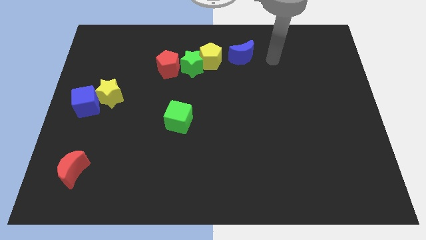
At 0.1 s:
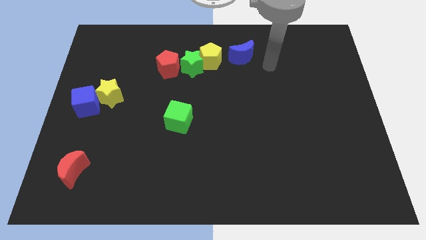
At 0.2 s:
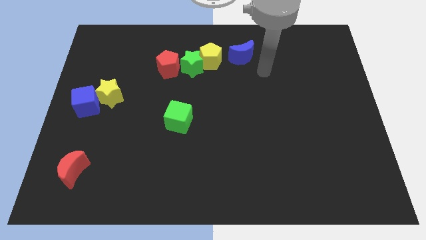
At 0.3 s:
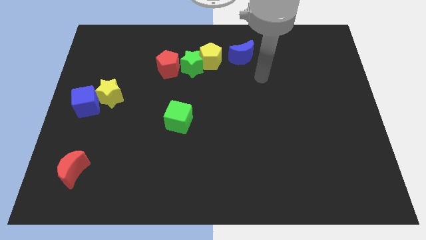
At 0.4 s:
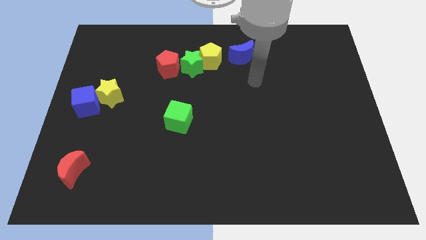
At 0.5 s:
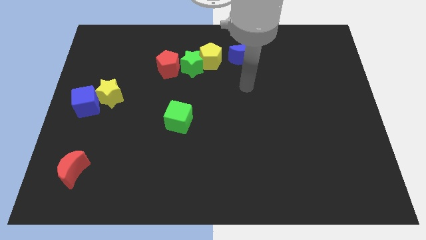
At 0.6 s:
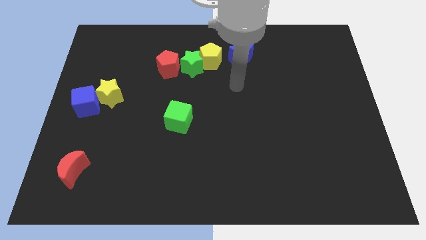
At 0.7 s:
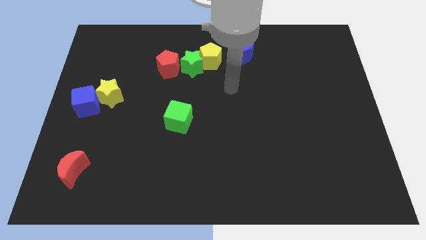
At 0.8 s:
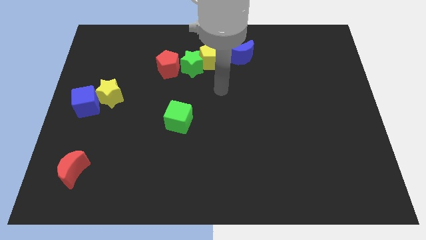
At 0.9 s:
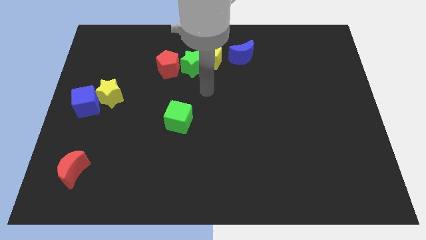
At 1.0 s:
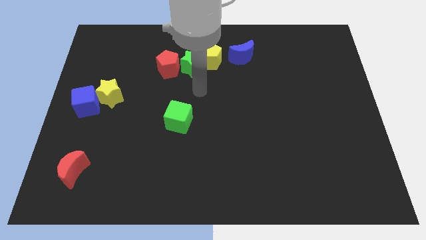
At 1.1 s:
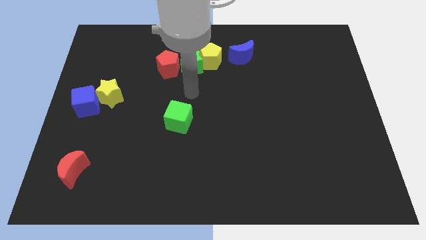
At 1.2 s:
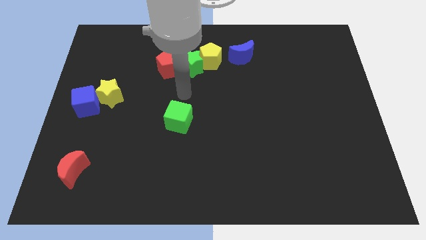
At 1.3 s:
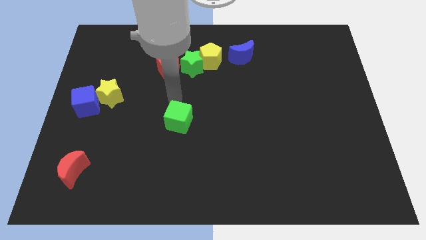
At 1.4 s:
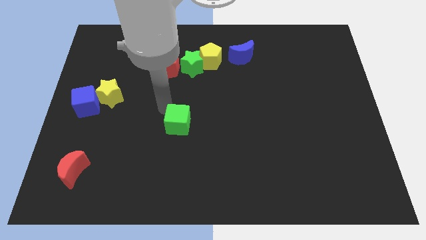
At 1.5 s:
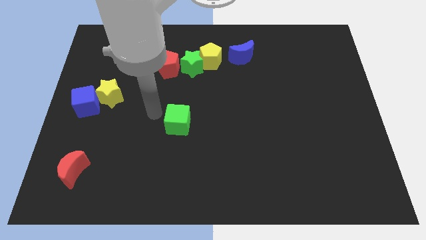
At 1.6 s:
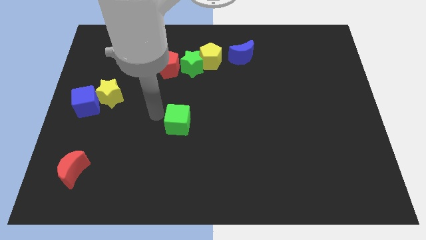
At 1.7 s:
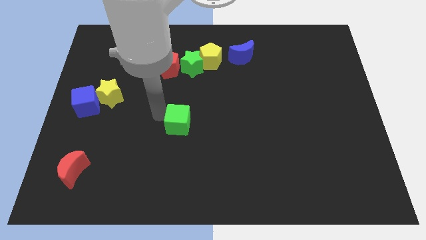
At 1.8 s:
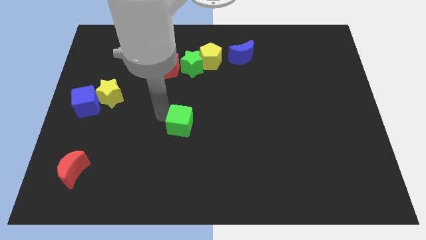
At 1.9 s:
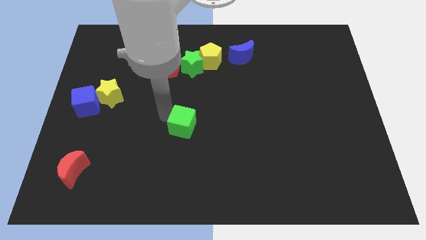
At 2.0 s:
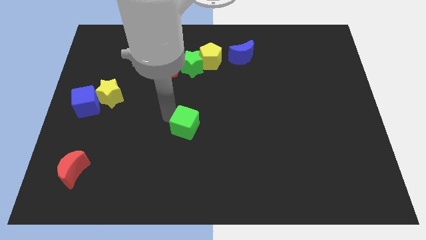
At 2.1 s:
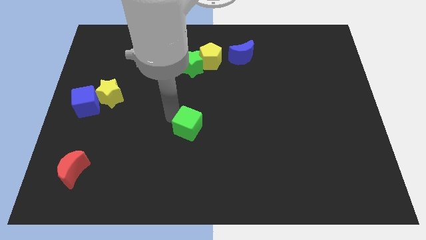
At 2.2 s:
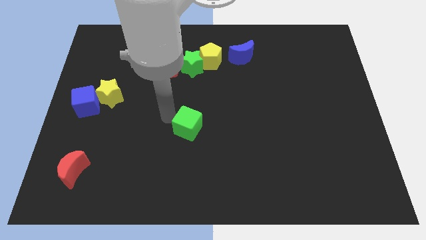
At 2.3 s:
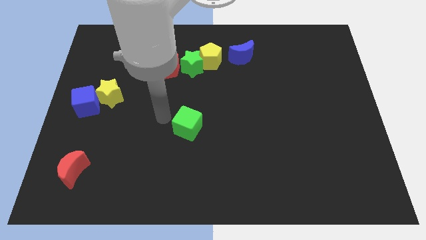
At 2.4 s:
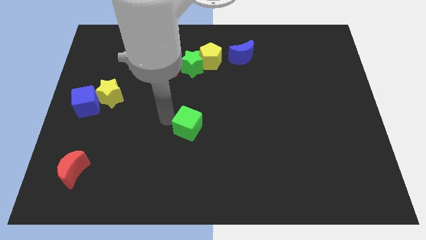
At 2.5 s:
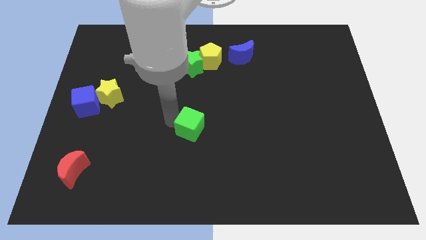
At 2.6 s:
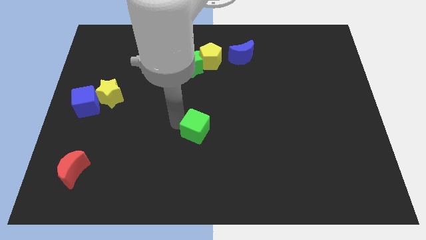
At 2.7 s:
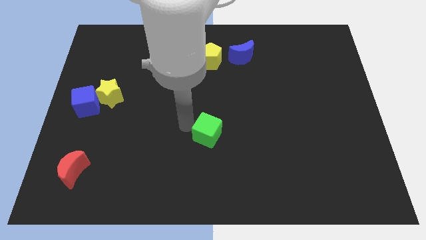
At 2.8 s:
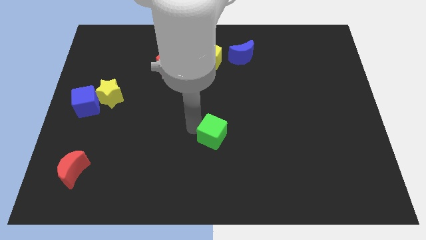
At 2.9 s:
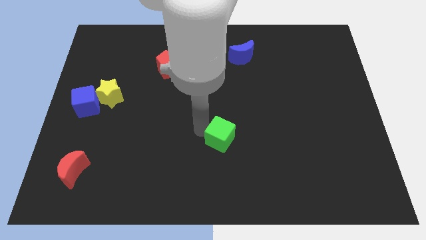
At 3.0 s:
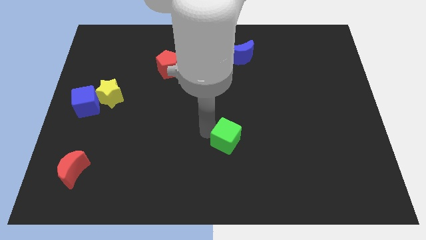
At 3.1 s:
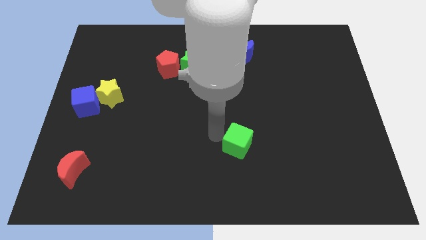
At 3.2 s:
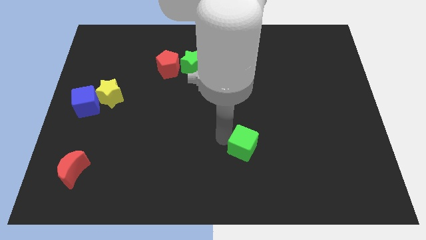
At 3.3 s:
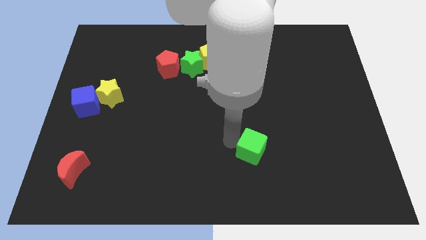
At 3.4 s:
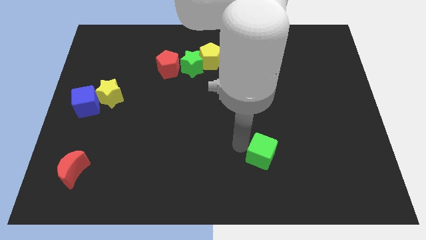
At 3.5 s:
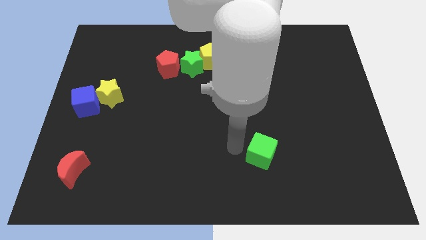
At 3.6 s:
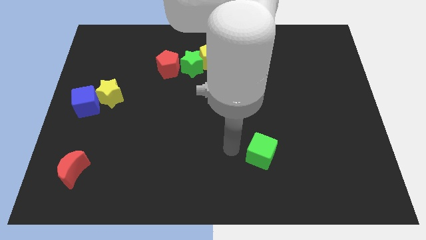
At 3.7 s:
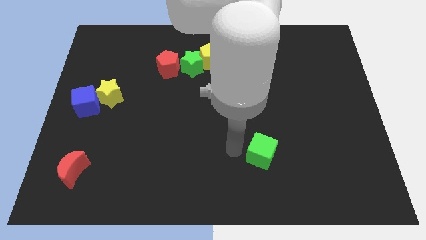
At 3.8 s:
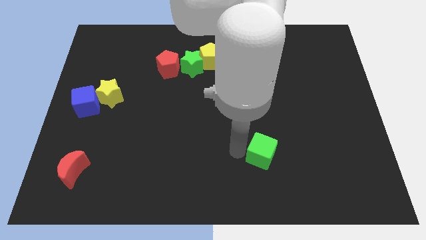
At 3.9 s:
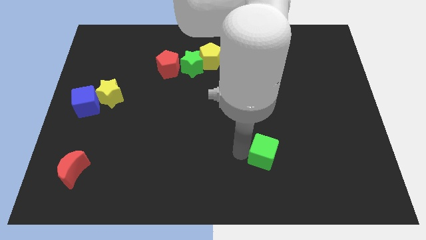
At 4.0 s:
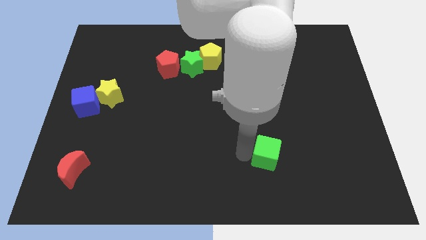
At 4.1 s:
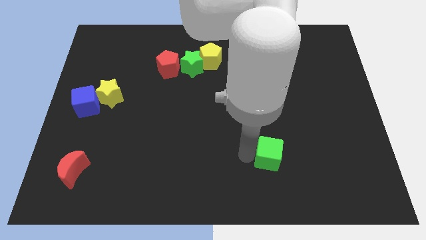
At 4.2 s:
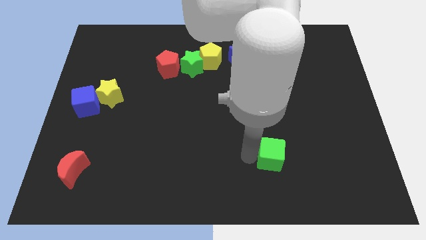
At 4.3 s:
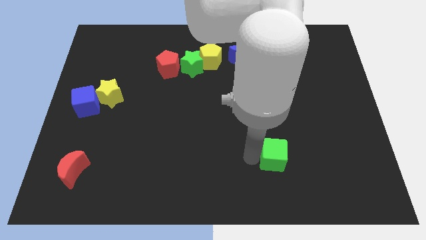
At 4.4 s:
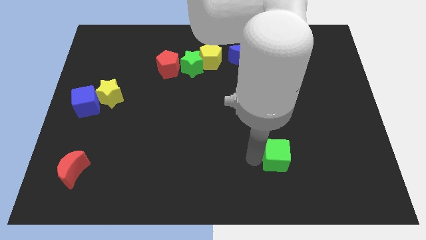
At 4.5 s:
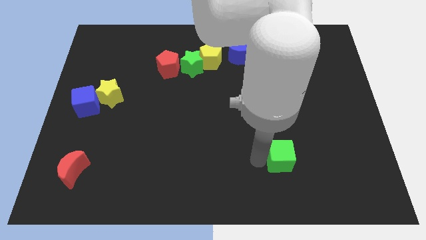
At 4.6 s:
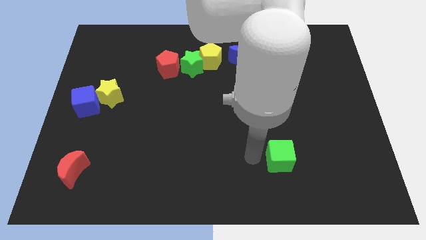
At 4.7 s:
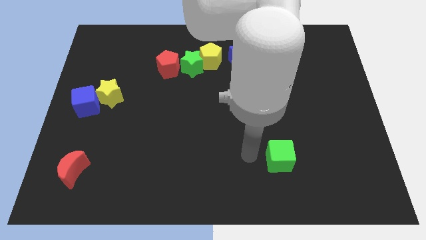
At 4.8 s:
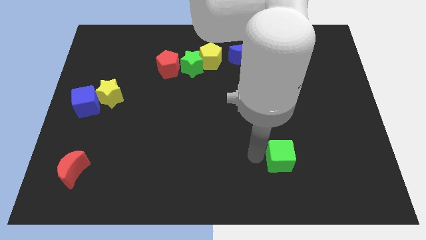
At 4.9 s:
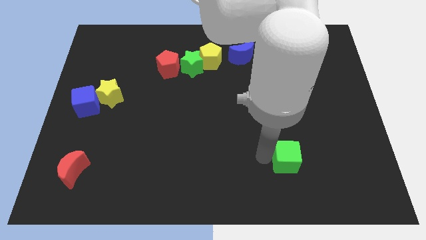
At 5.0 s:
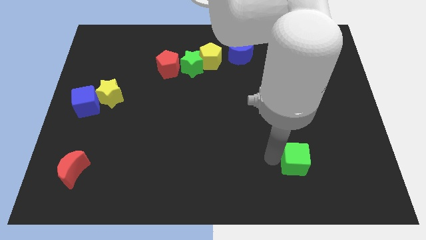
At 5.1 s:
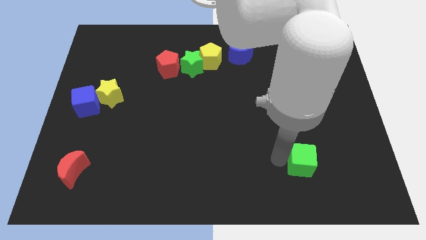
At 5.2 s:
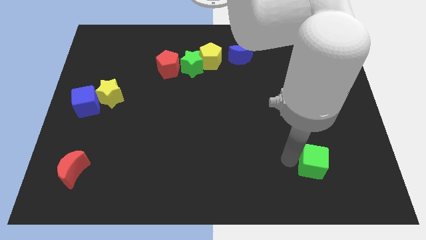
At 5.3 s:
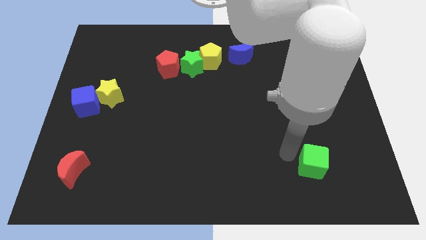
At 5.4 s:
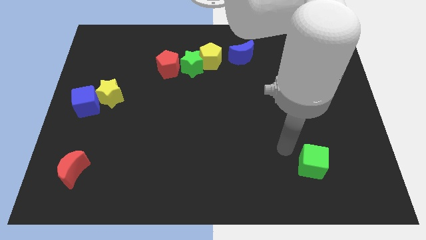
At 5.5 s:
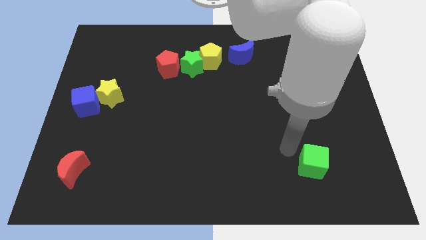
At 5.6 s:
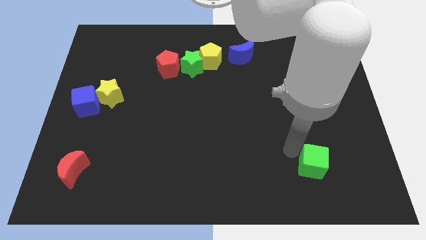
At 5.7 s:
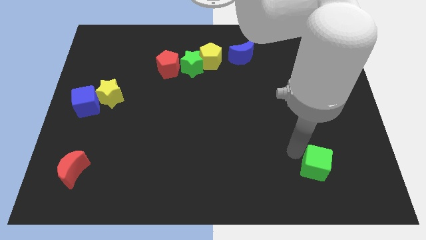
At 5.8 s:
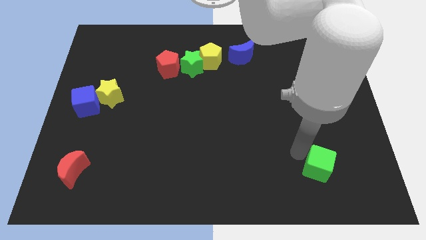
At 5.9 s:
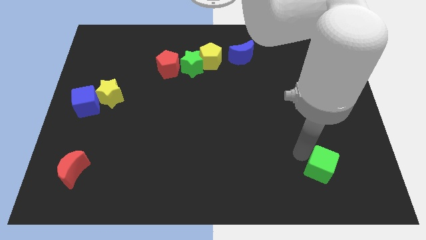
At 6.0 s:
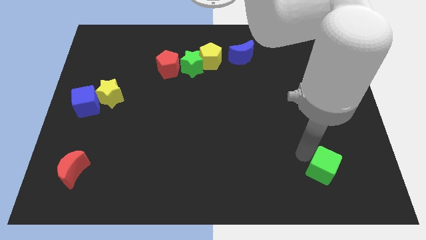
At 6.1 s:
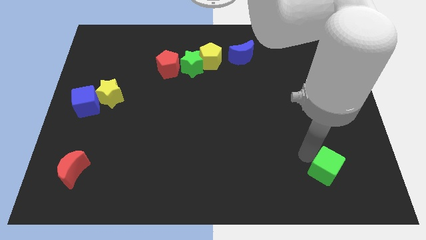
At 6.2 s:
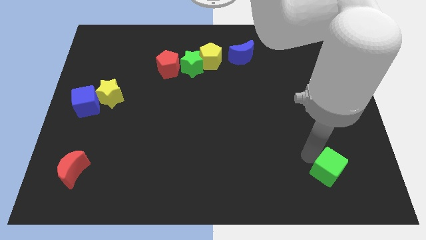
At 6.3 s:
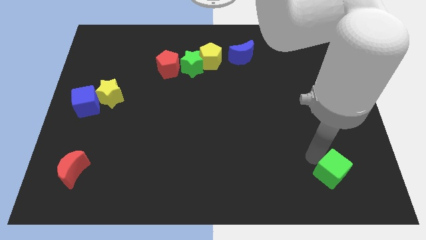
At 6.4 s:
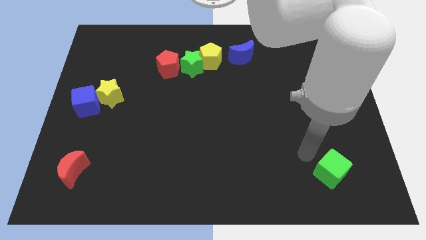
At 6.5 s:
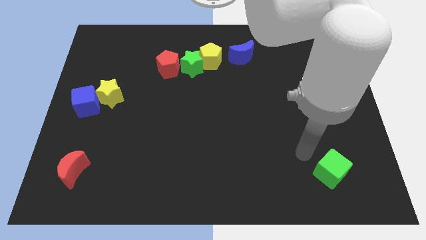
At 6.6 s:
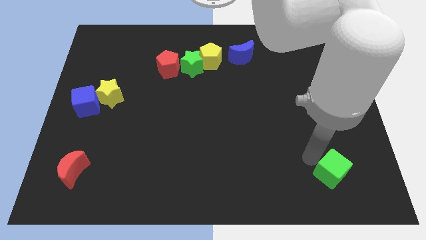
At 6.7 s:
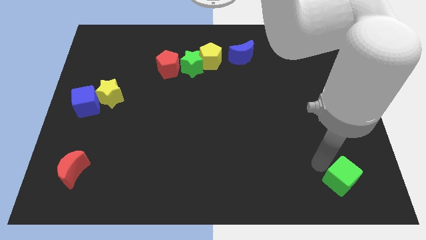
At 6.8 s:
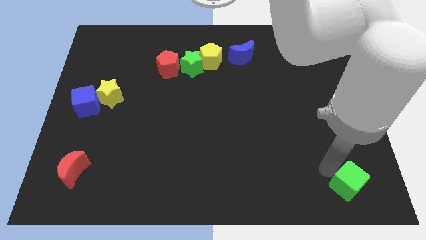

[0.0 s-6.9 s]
put the green cube to the lower right corner
